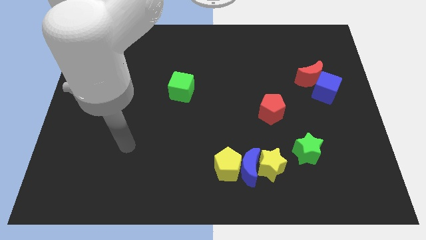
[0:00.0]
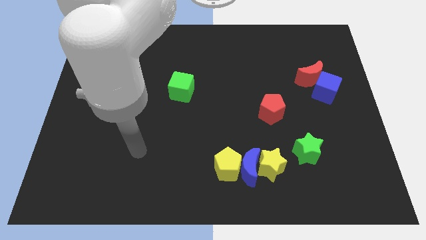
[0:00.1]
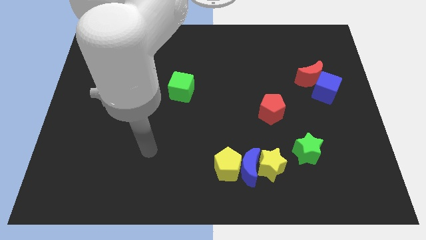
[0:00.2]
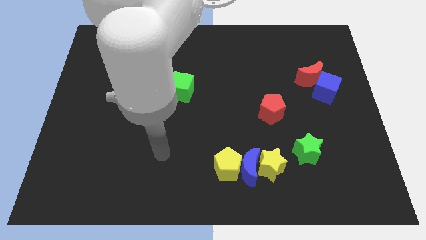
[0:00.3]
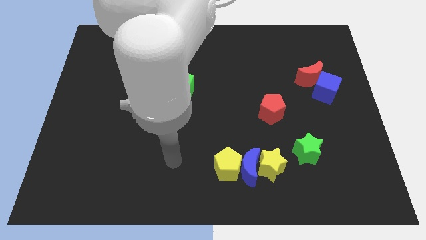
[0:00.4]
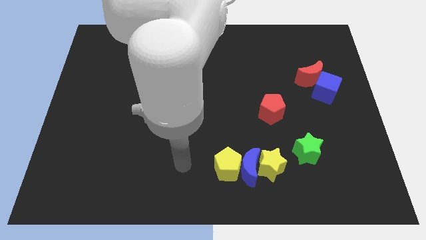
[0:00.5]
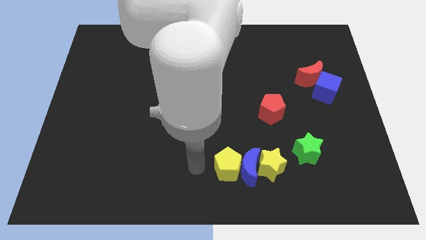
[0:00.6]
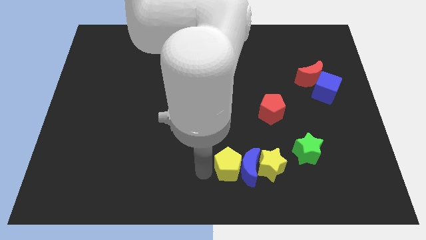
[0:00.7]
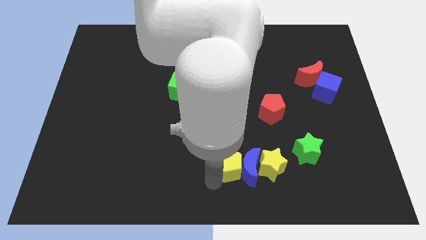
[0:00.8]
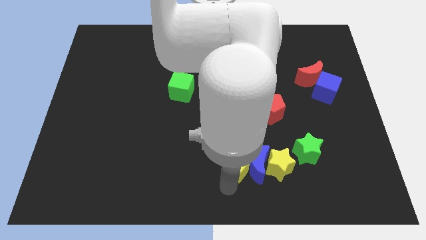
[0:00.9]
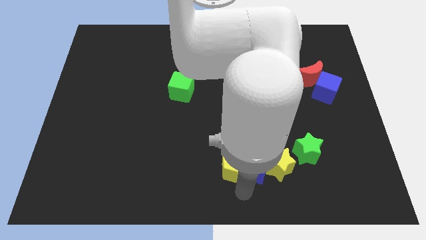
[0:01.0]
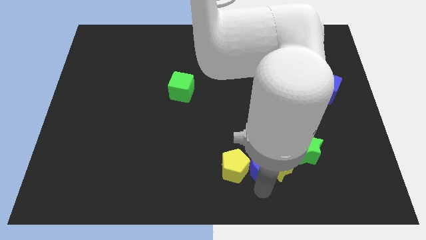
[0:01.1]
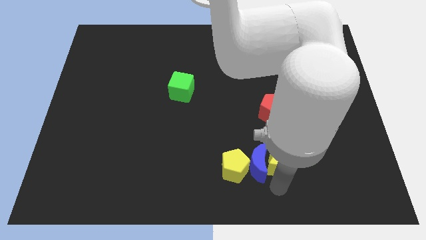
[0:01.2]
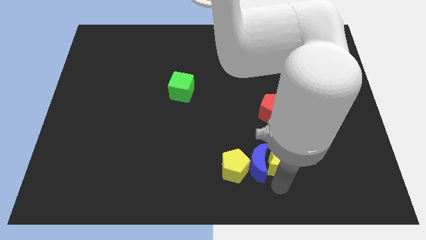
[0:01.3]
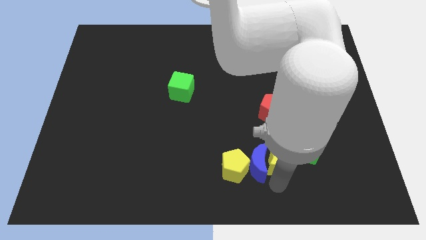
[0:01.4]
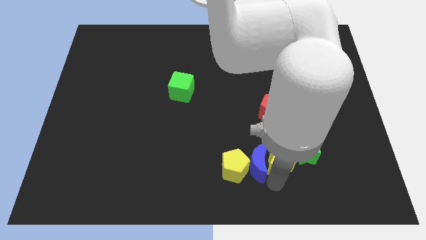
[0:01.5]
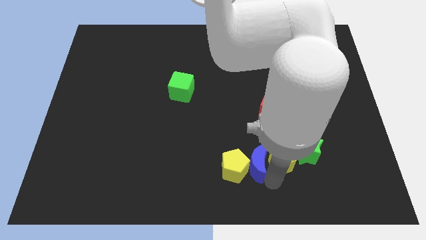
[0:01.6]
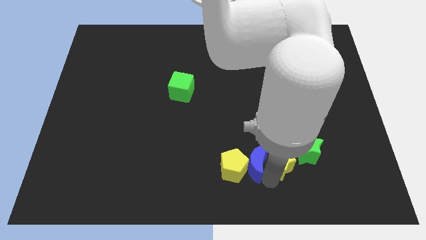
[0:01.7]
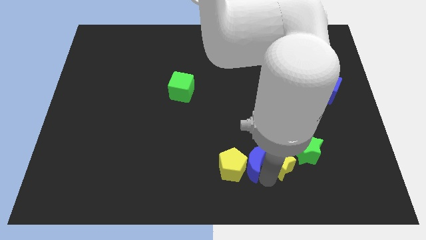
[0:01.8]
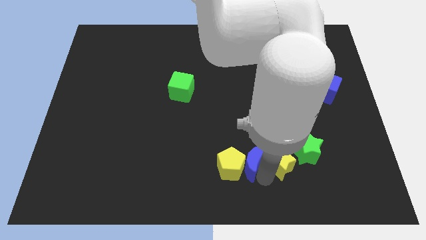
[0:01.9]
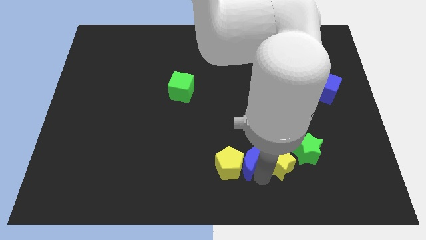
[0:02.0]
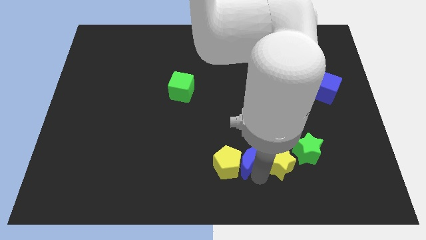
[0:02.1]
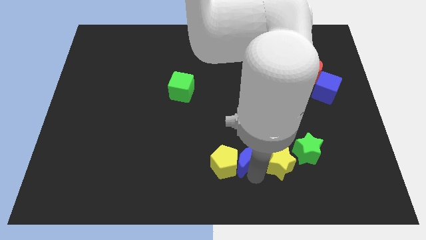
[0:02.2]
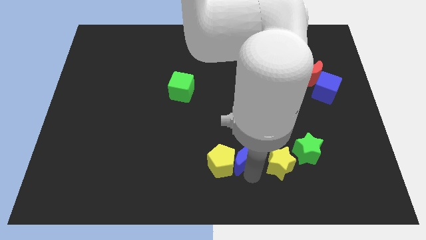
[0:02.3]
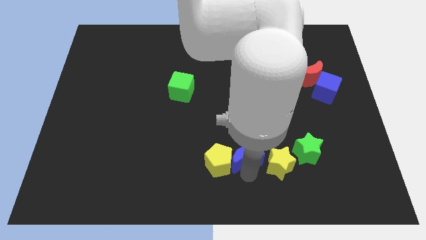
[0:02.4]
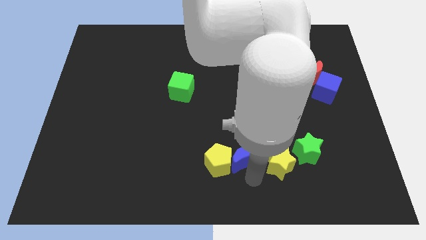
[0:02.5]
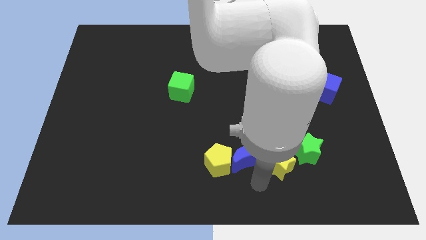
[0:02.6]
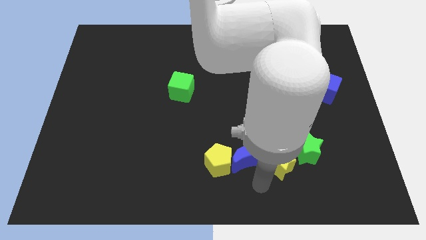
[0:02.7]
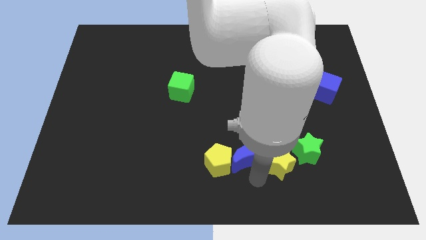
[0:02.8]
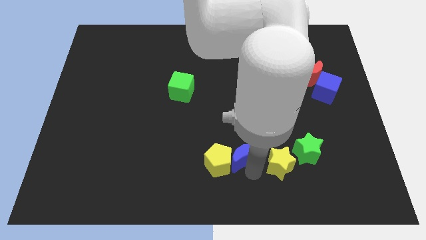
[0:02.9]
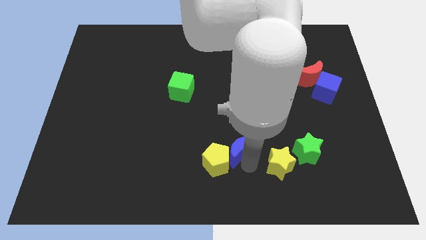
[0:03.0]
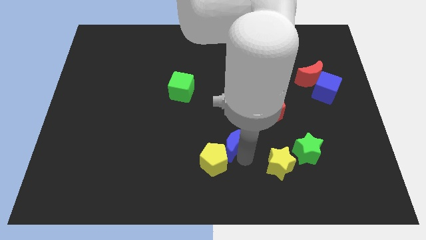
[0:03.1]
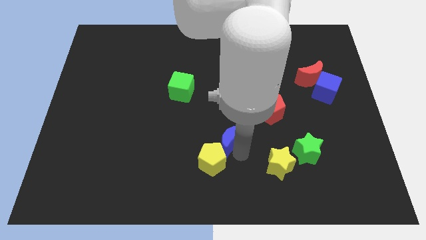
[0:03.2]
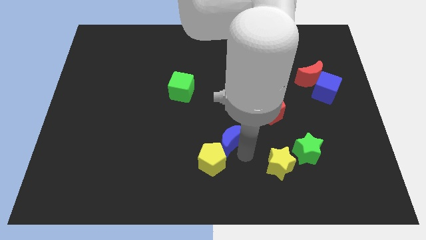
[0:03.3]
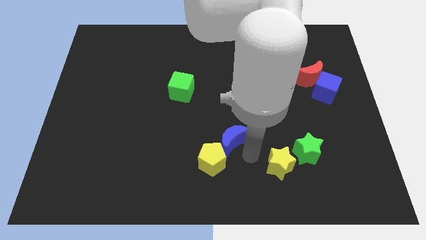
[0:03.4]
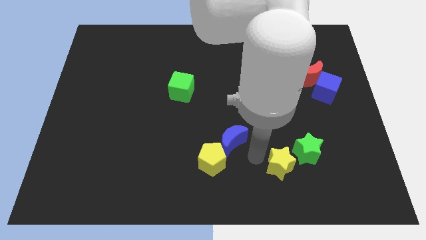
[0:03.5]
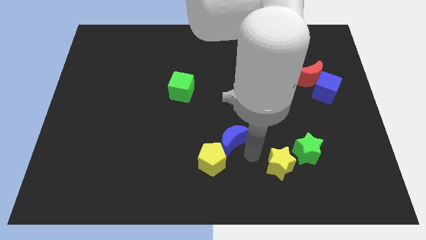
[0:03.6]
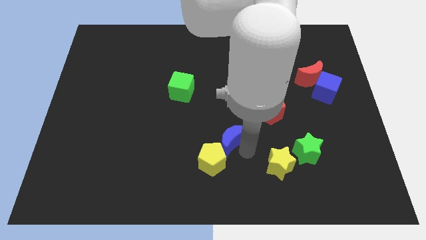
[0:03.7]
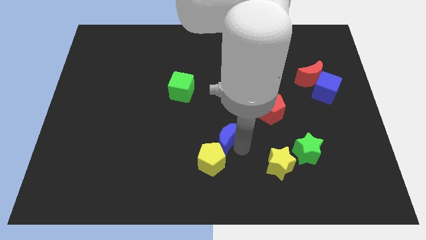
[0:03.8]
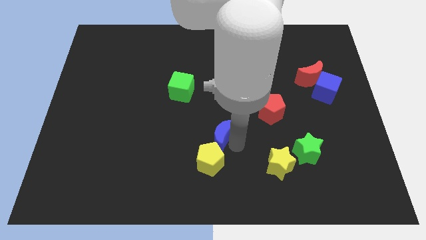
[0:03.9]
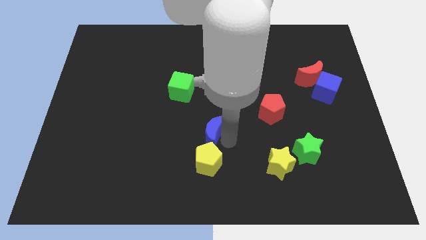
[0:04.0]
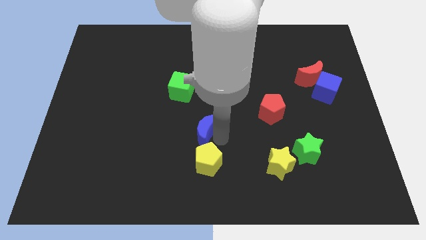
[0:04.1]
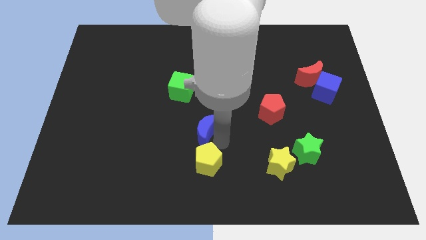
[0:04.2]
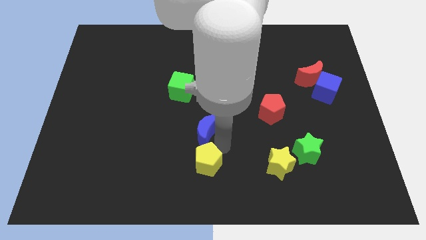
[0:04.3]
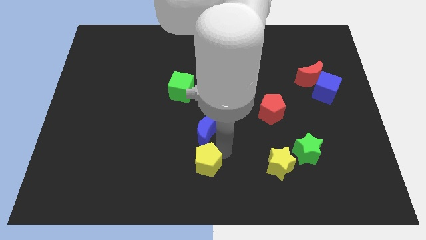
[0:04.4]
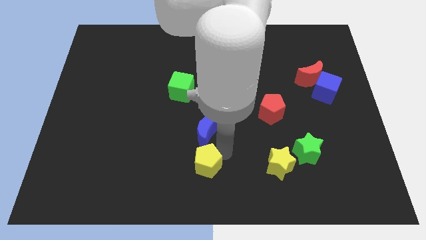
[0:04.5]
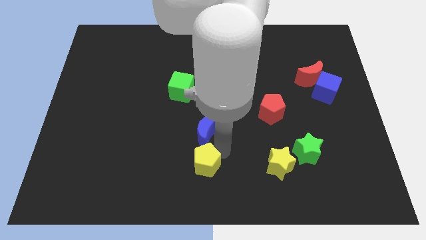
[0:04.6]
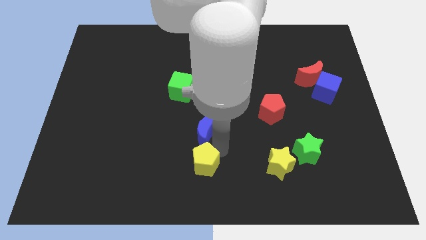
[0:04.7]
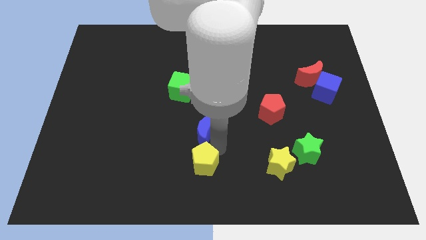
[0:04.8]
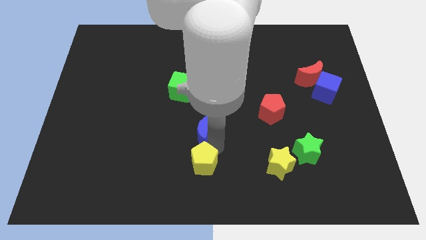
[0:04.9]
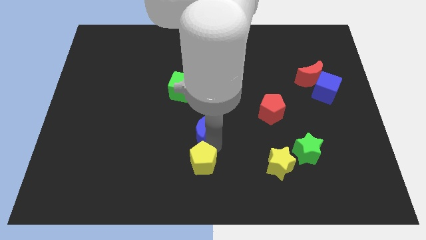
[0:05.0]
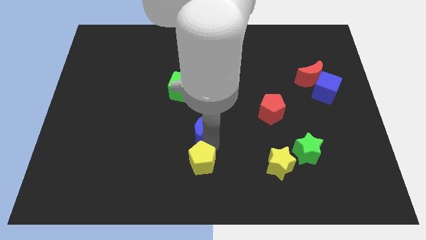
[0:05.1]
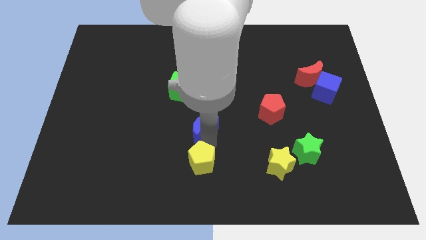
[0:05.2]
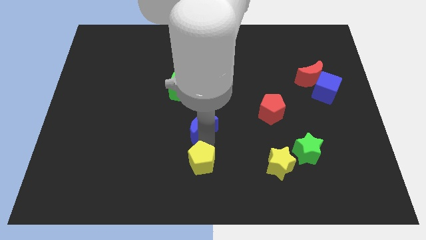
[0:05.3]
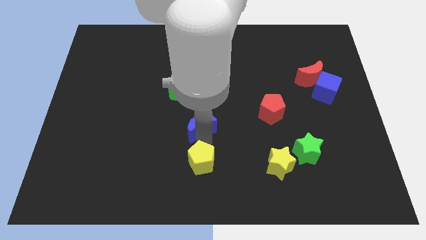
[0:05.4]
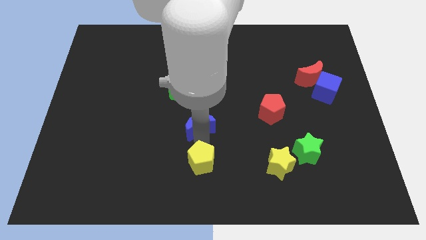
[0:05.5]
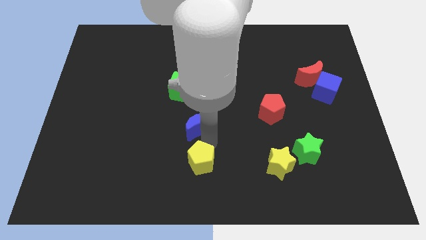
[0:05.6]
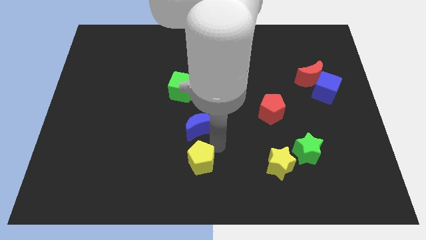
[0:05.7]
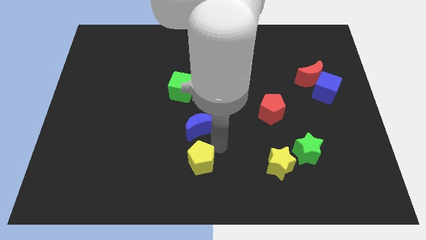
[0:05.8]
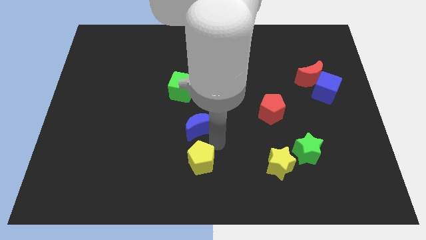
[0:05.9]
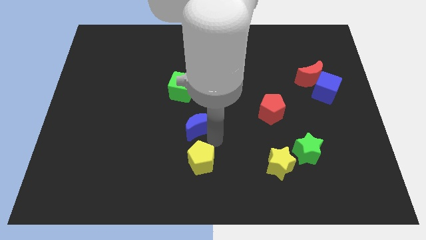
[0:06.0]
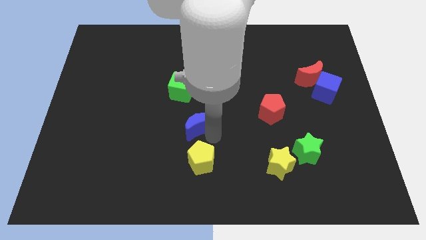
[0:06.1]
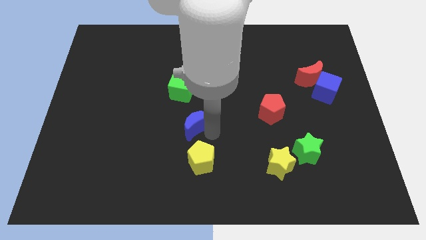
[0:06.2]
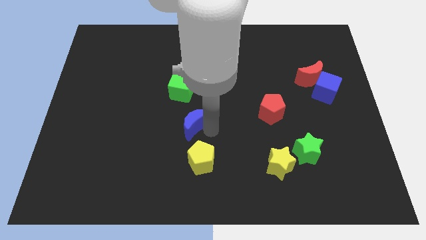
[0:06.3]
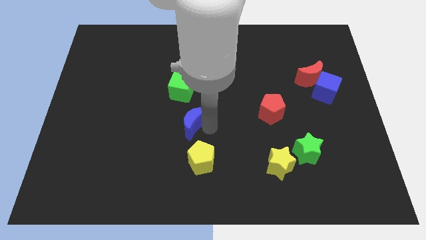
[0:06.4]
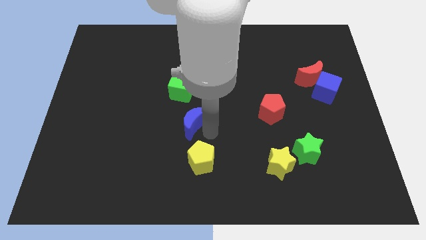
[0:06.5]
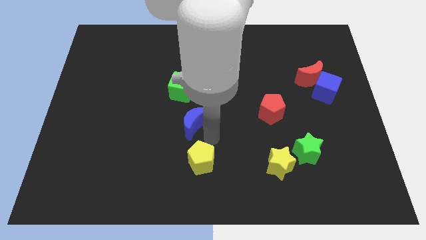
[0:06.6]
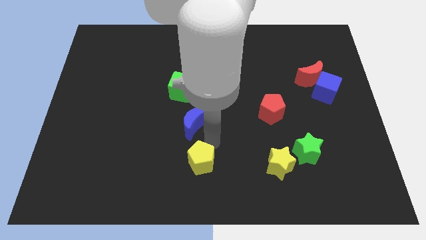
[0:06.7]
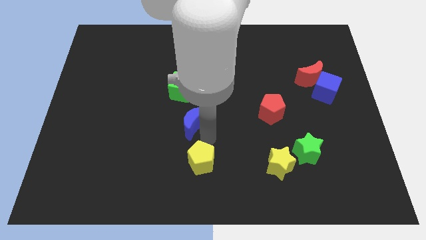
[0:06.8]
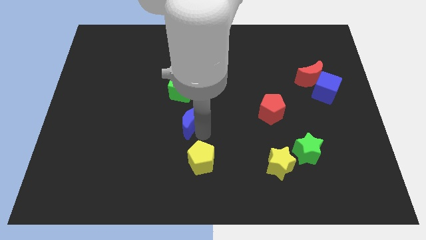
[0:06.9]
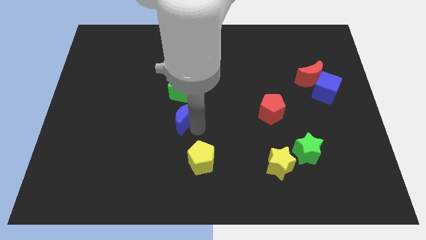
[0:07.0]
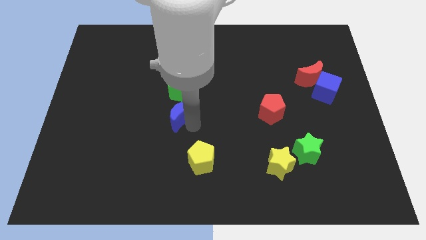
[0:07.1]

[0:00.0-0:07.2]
move the blue moon upwards and left diagonally

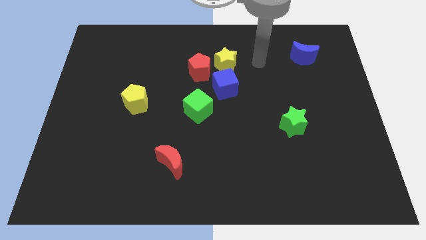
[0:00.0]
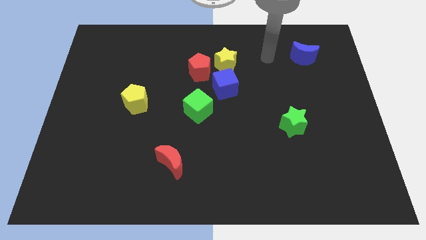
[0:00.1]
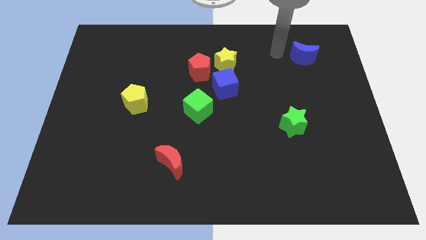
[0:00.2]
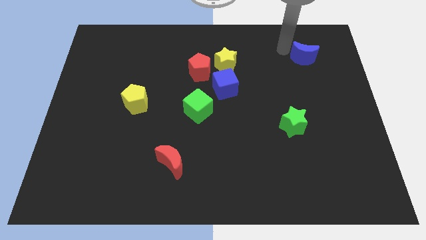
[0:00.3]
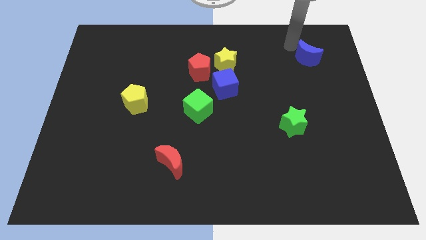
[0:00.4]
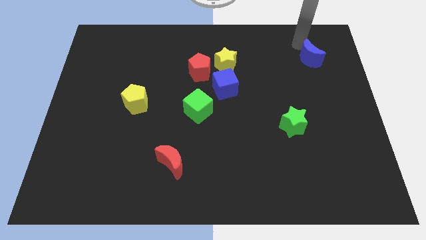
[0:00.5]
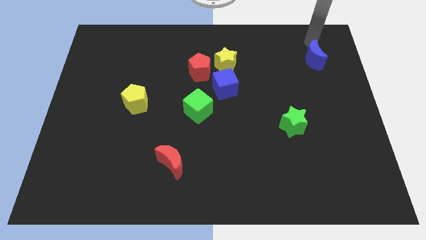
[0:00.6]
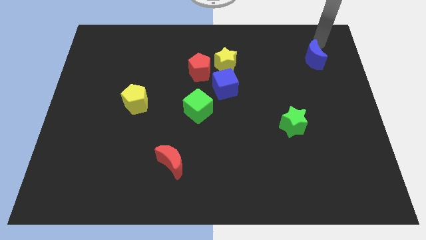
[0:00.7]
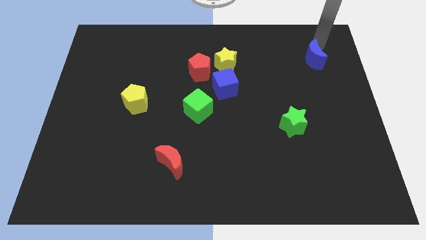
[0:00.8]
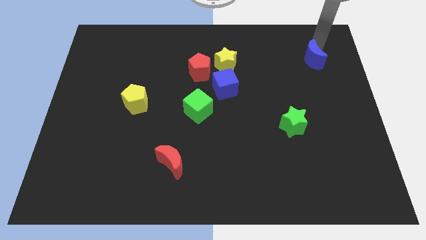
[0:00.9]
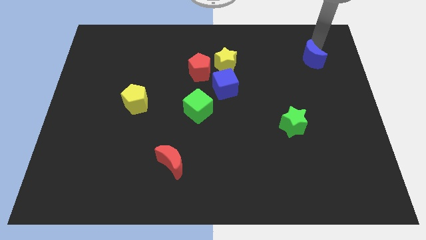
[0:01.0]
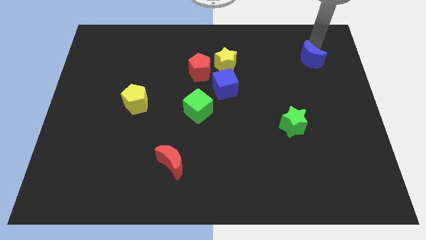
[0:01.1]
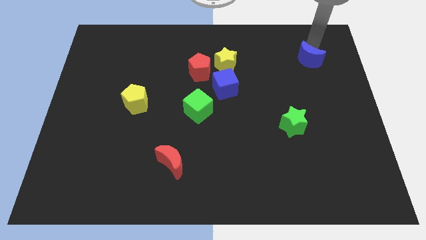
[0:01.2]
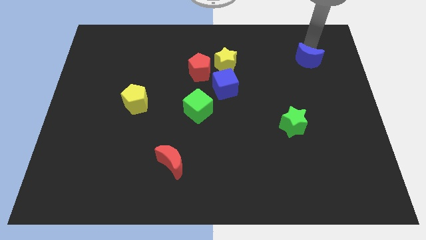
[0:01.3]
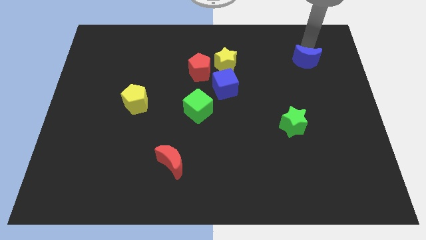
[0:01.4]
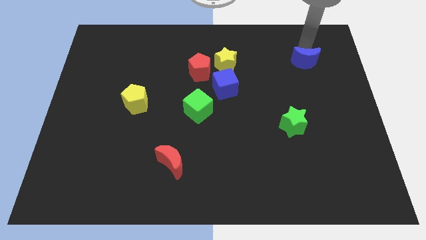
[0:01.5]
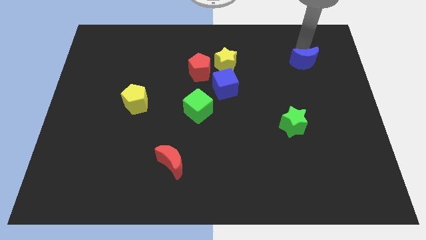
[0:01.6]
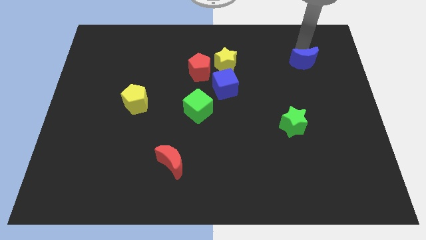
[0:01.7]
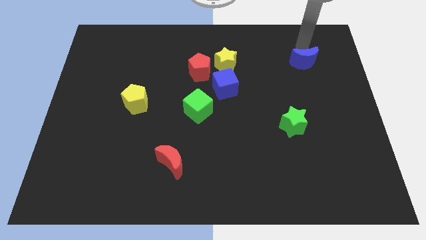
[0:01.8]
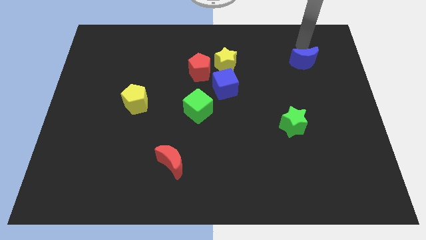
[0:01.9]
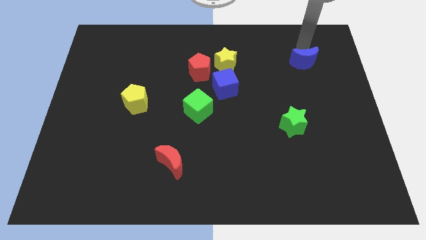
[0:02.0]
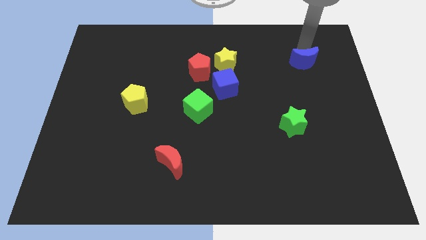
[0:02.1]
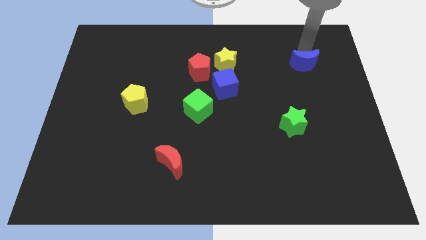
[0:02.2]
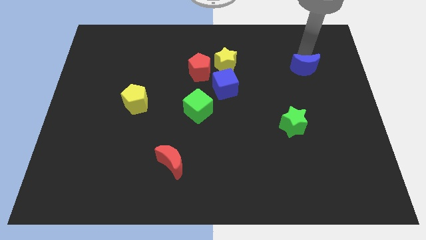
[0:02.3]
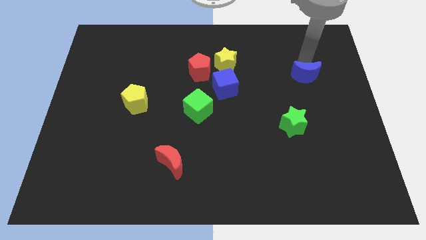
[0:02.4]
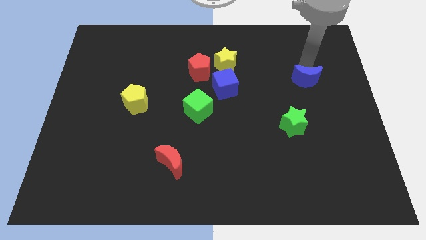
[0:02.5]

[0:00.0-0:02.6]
slide the blue moon down somewhat
